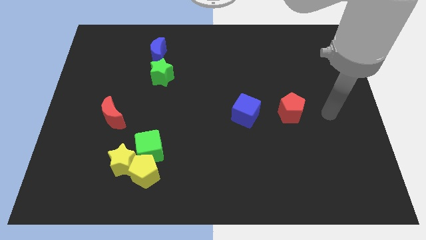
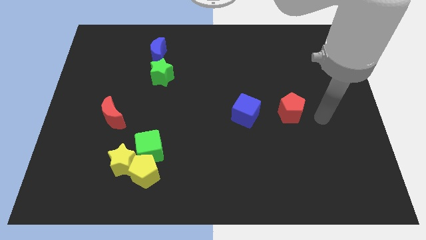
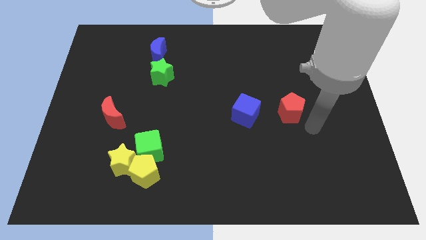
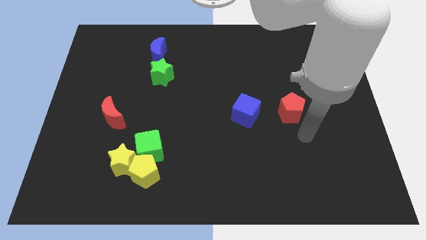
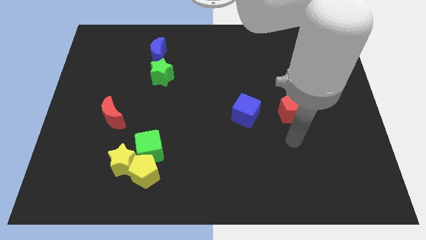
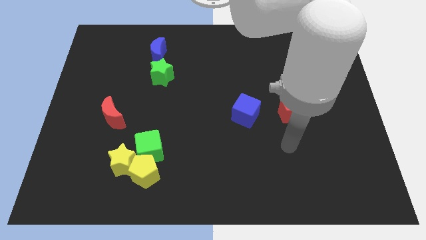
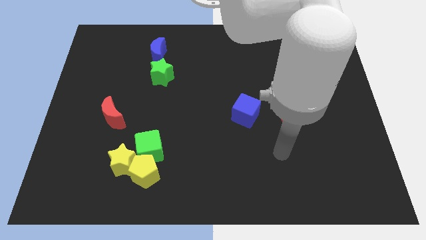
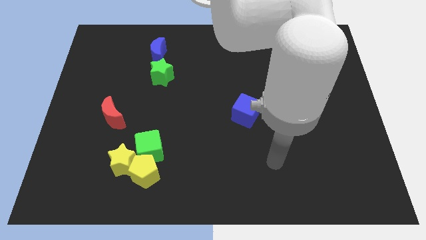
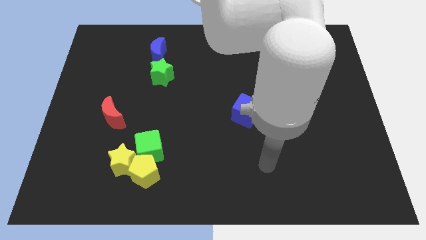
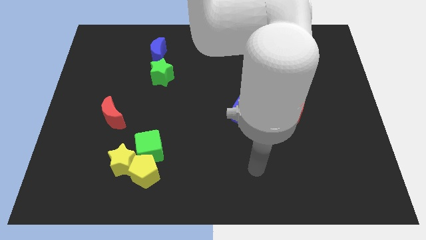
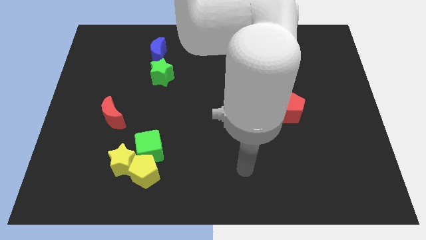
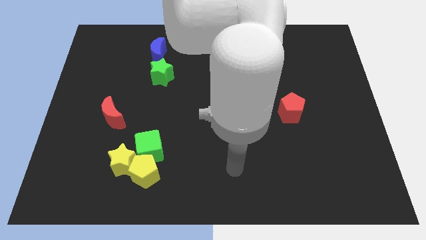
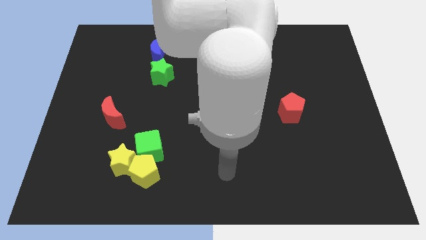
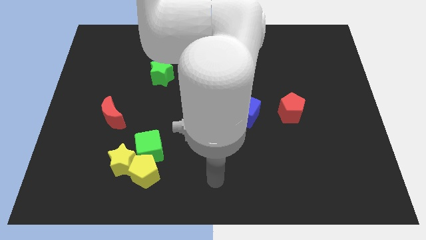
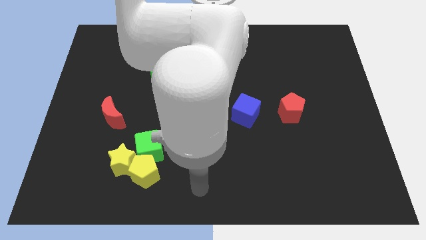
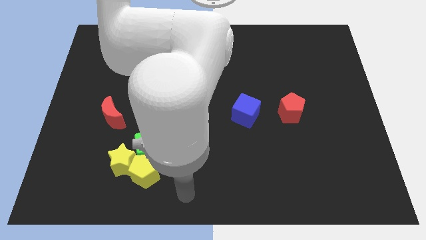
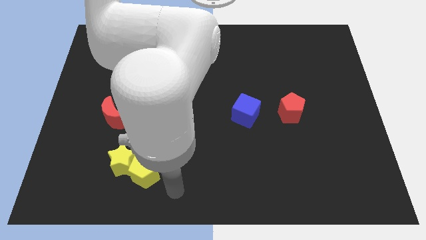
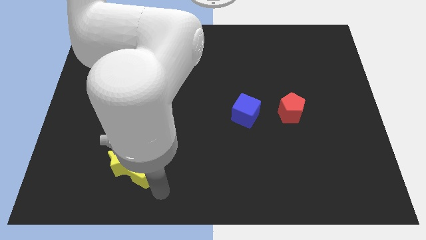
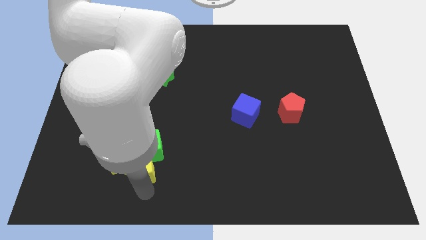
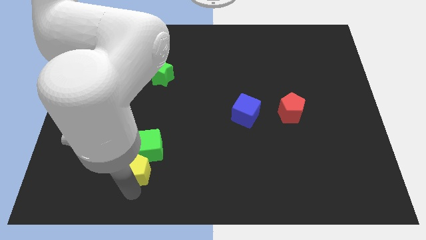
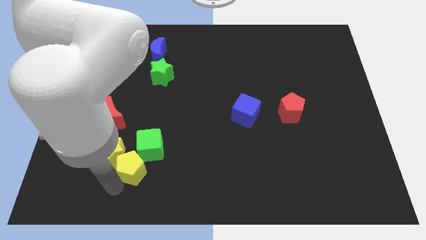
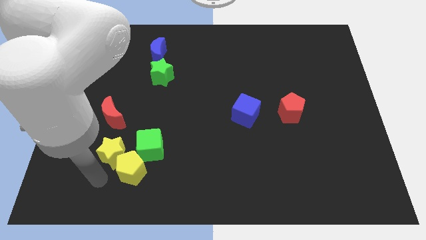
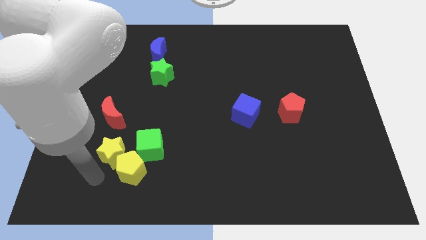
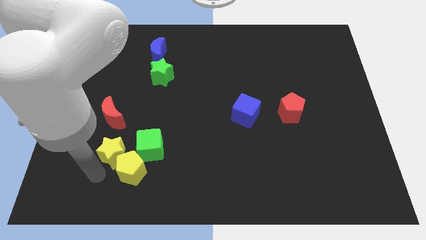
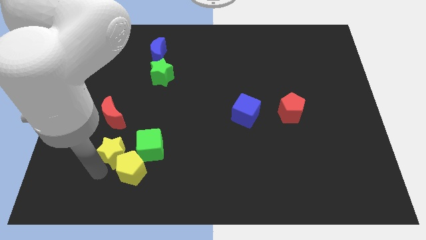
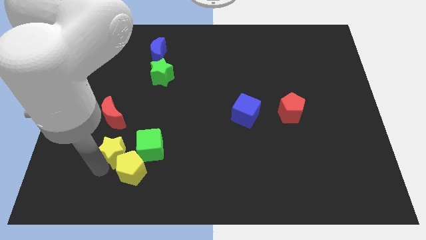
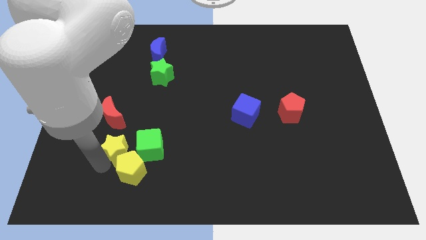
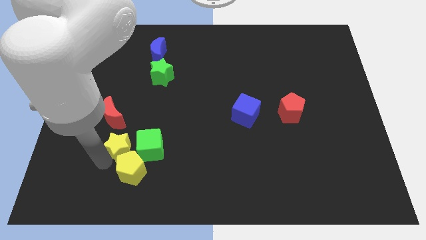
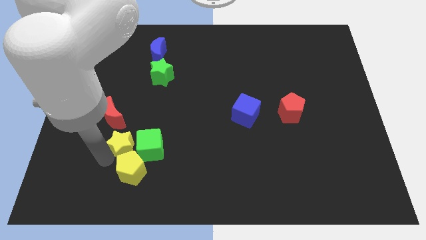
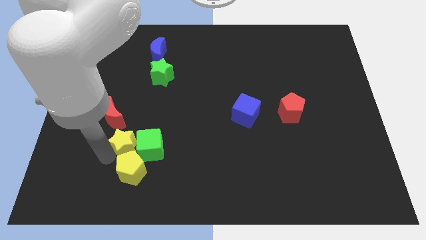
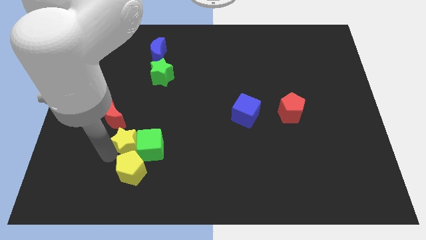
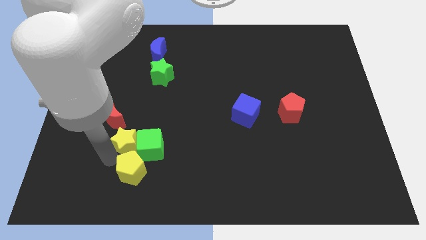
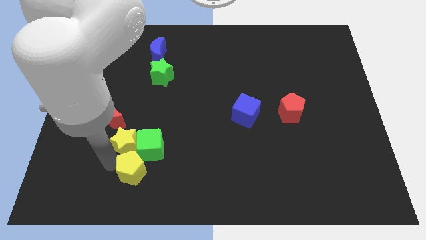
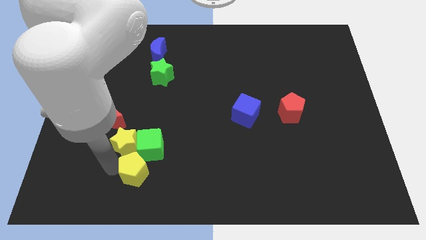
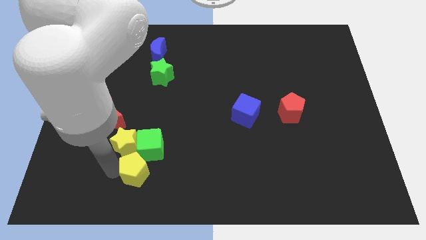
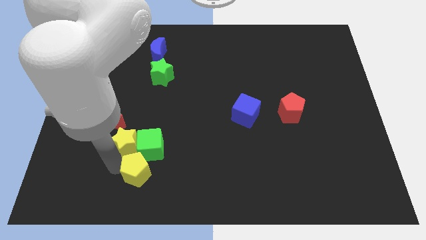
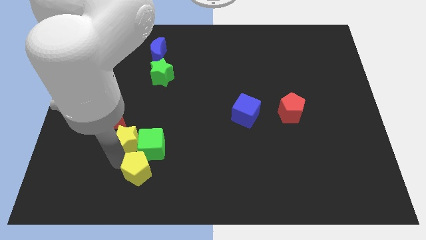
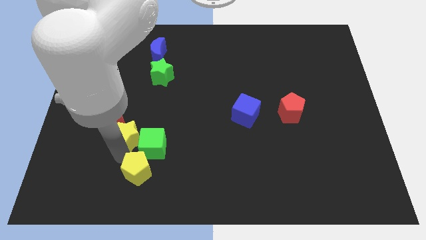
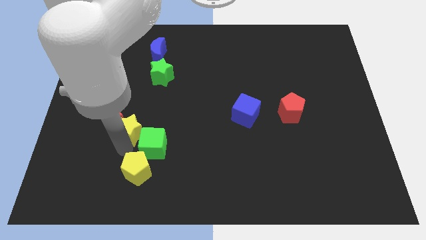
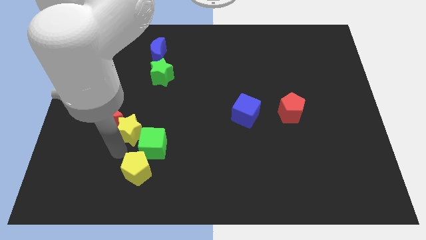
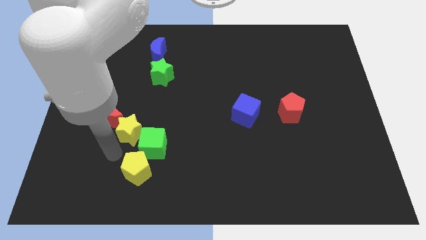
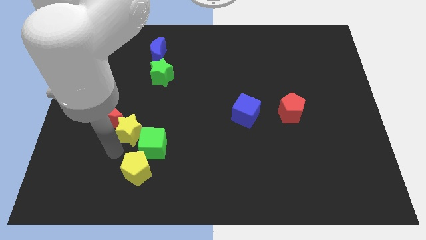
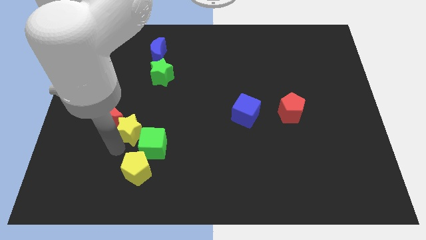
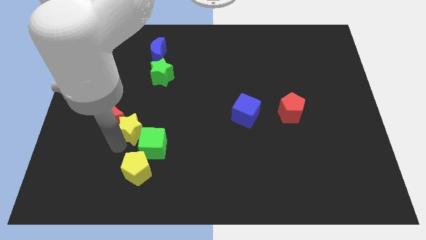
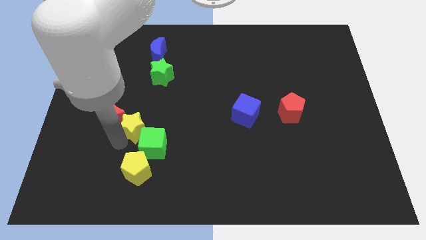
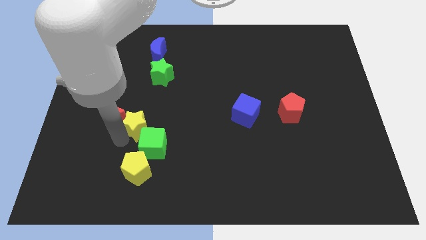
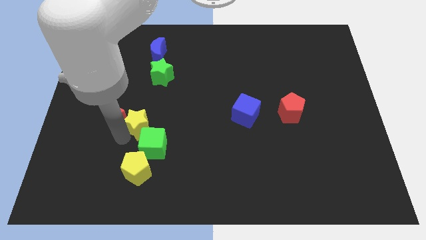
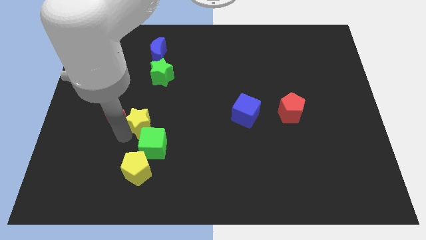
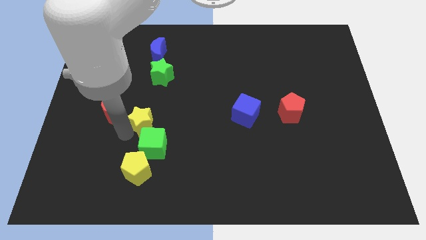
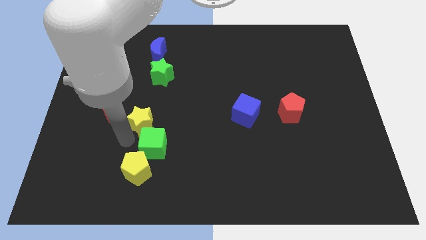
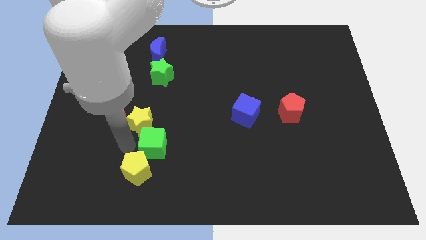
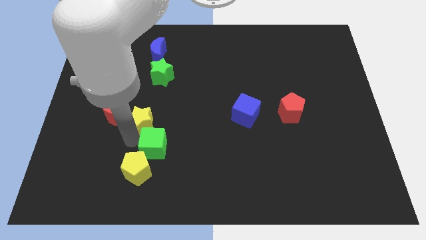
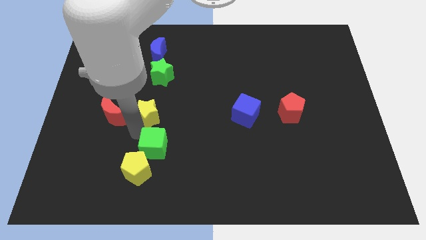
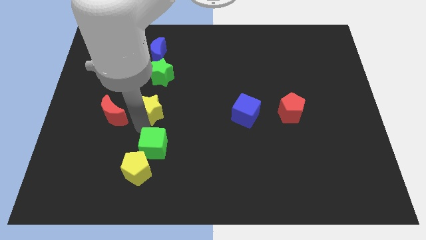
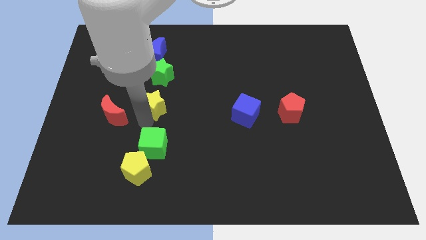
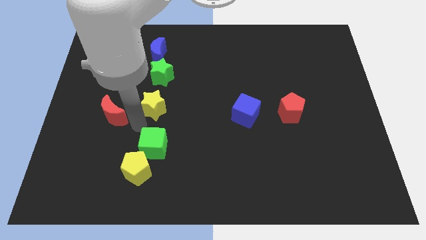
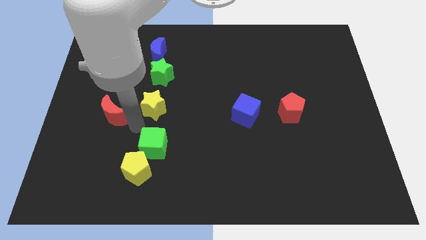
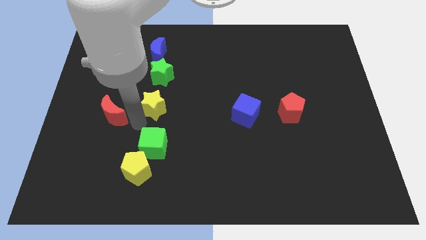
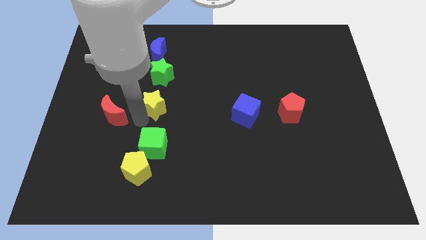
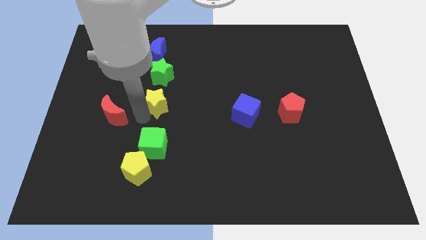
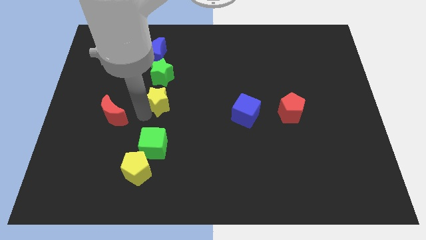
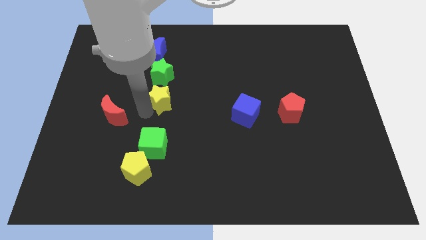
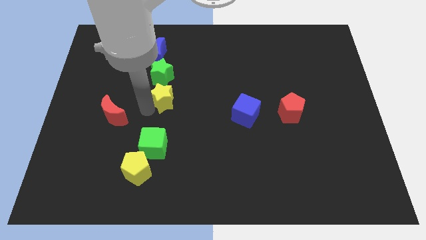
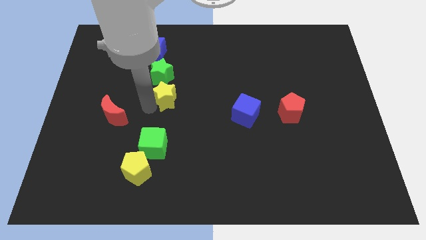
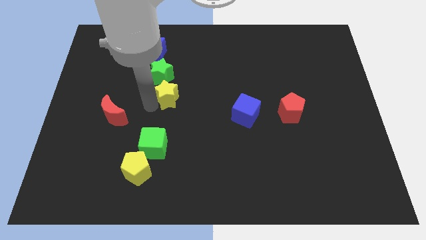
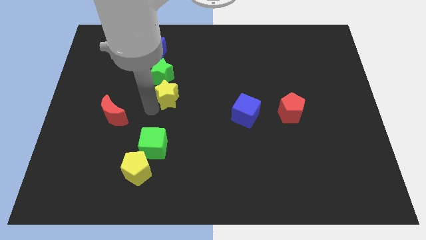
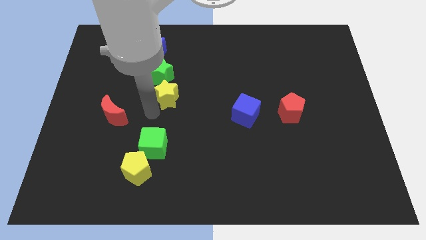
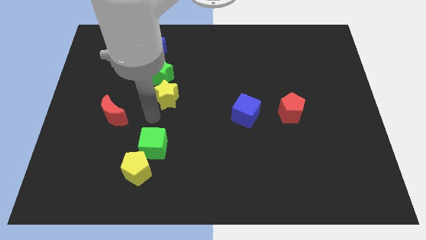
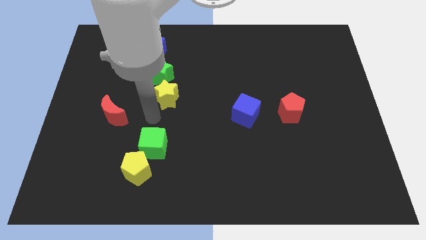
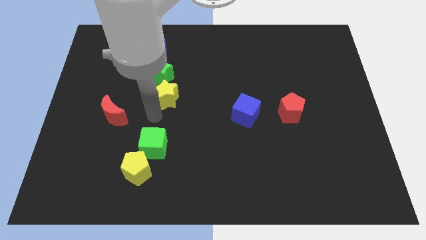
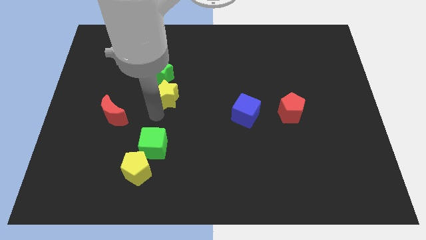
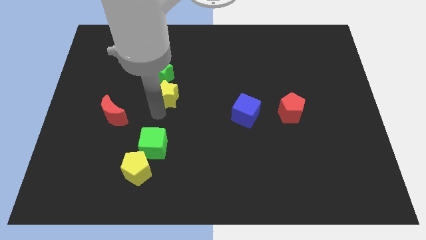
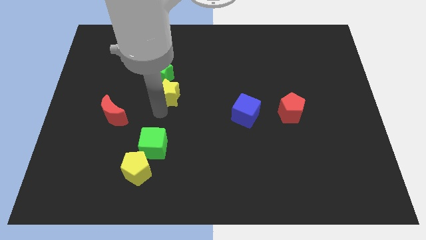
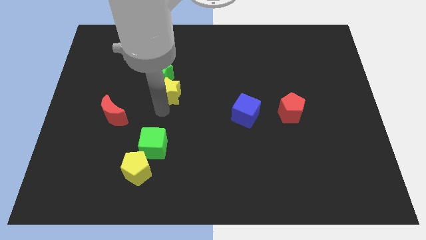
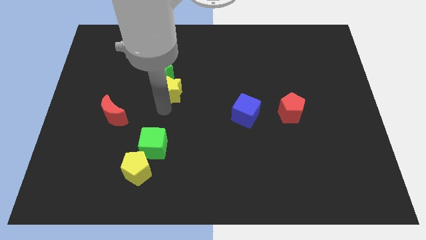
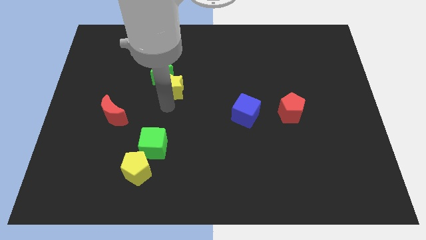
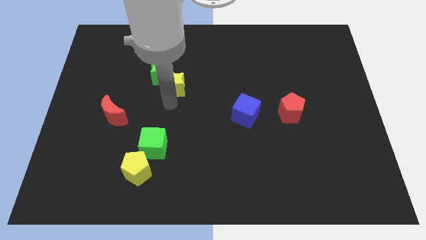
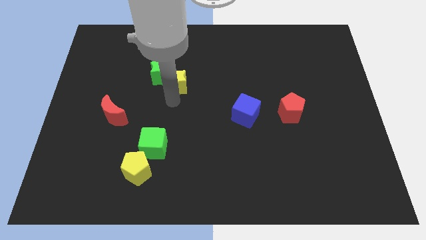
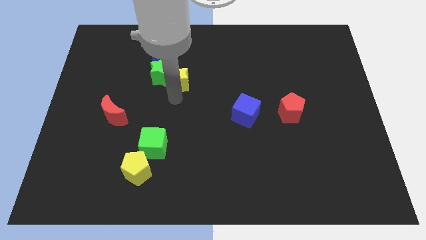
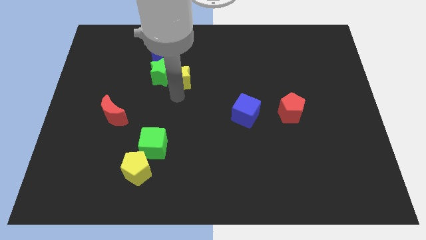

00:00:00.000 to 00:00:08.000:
move the yellow star to the top right side of the green star
